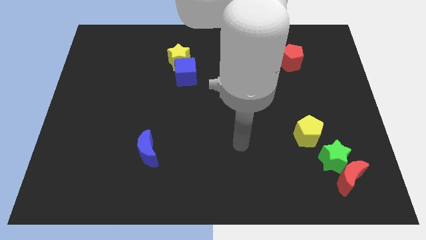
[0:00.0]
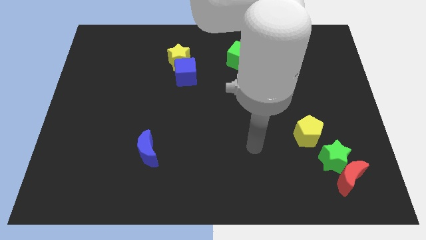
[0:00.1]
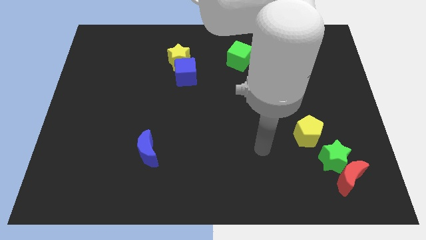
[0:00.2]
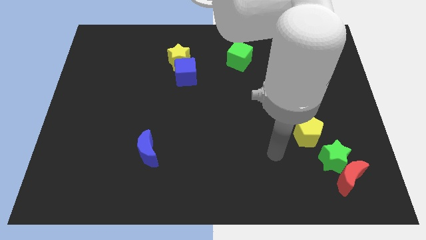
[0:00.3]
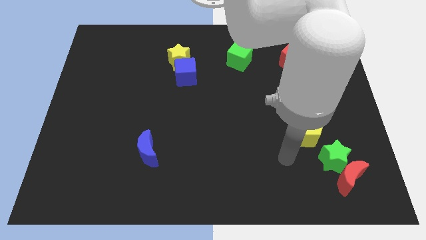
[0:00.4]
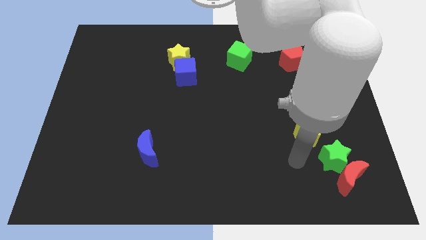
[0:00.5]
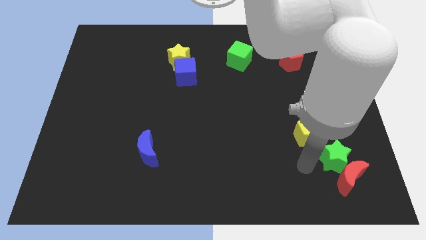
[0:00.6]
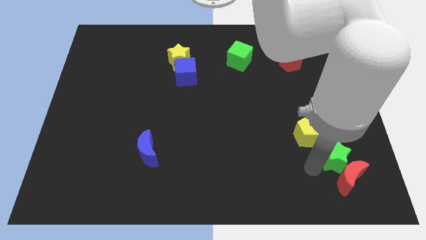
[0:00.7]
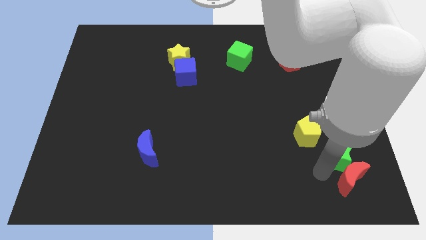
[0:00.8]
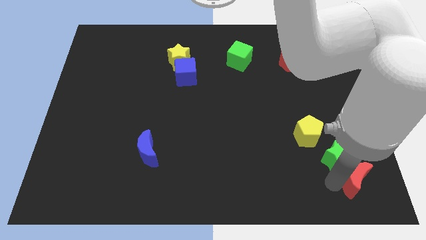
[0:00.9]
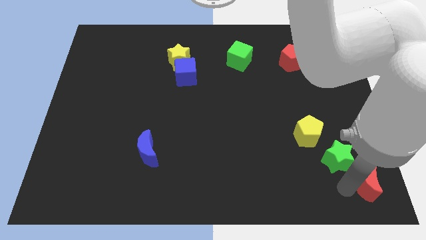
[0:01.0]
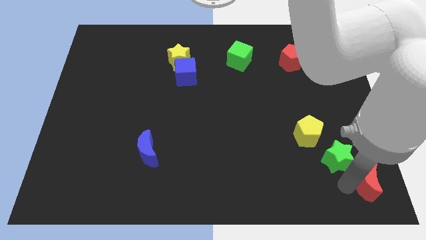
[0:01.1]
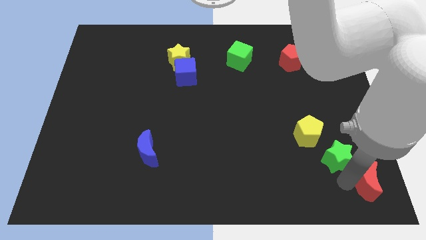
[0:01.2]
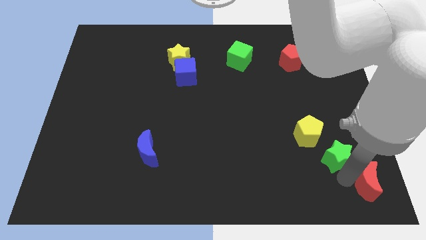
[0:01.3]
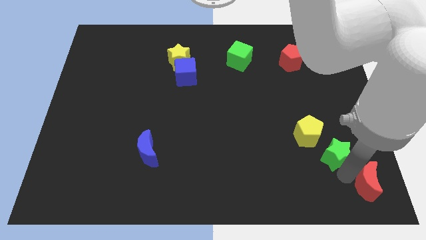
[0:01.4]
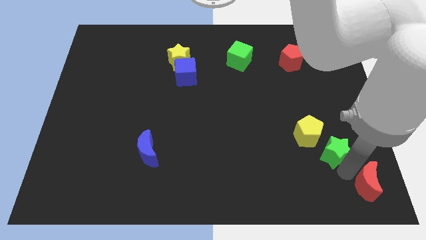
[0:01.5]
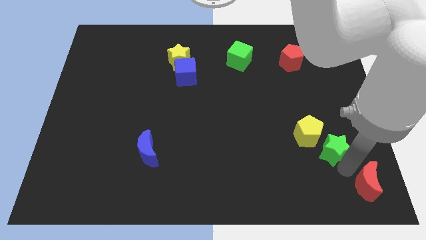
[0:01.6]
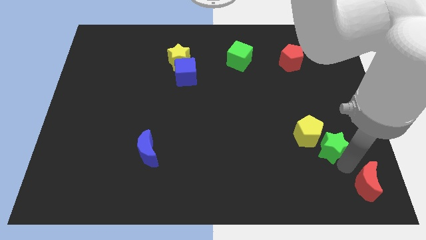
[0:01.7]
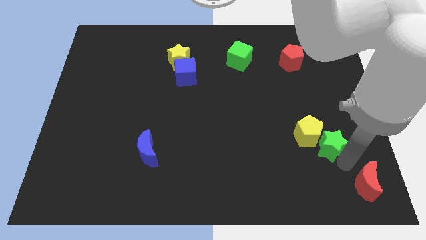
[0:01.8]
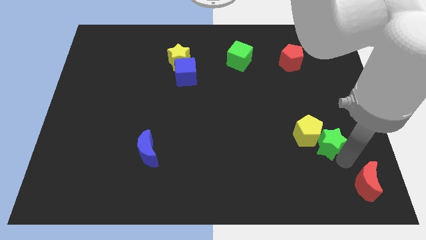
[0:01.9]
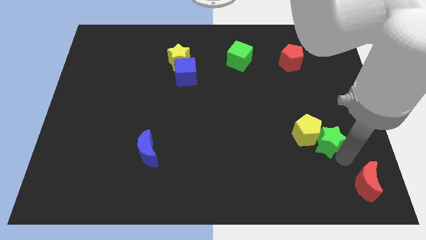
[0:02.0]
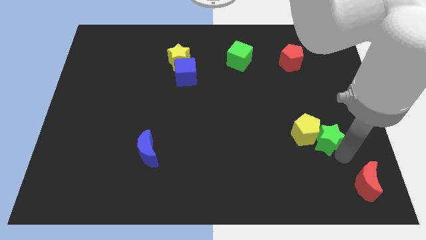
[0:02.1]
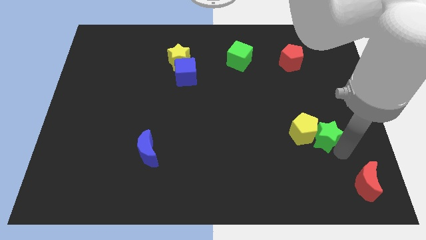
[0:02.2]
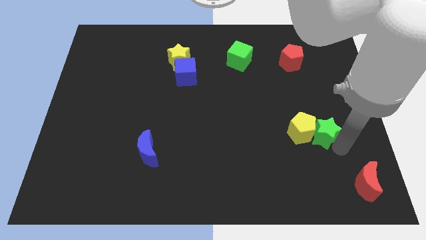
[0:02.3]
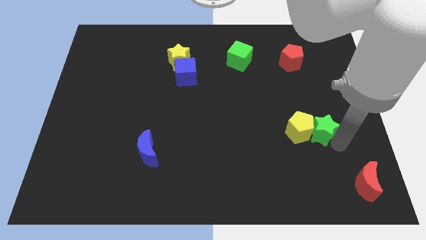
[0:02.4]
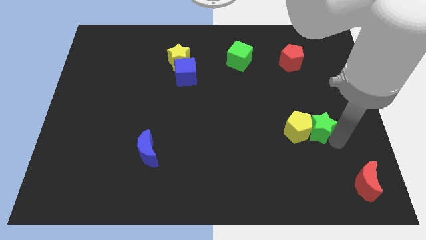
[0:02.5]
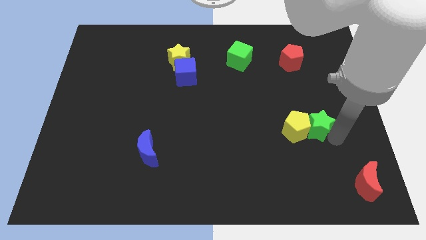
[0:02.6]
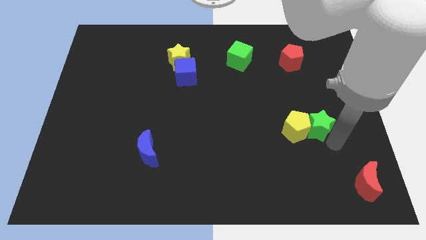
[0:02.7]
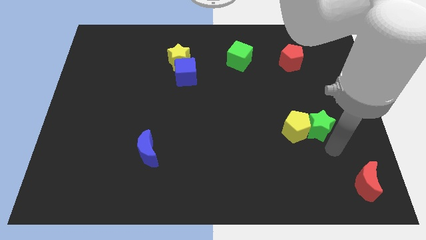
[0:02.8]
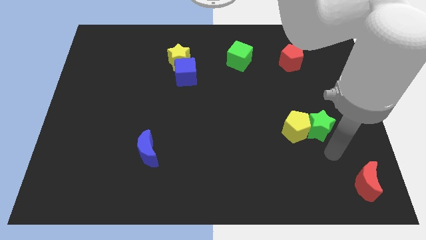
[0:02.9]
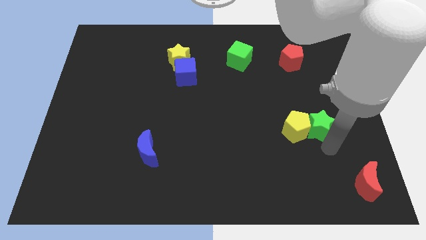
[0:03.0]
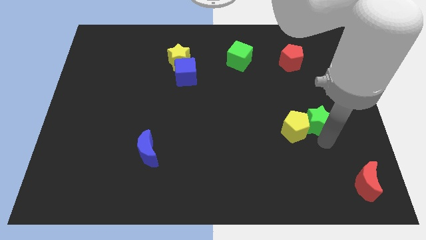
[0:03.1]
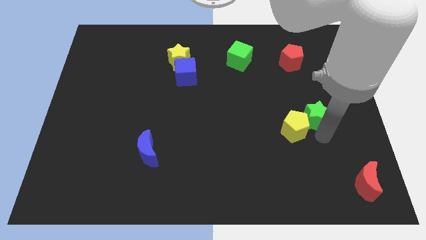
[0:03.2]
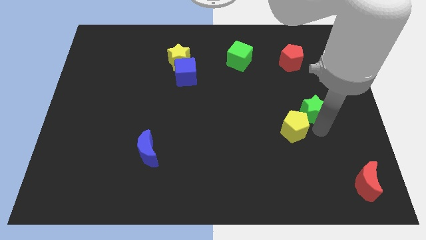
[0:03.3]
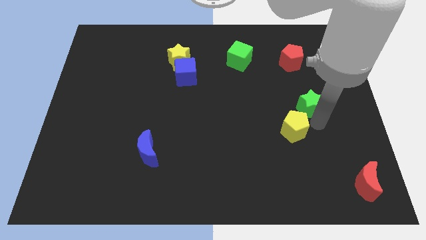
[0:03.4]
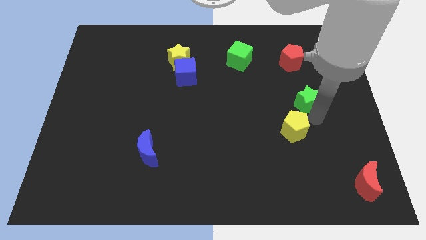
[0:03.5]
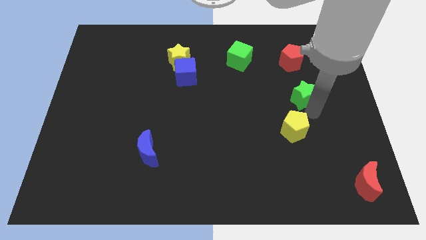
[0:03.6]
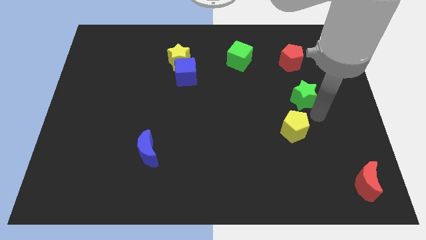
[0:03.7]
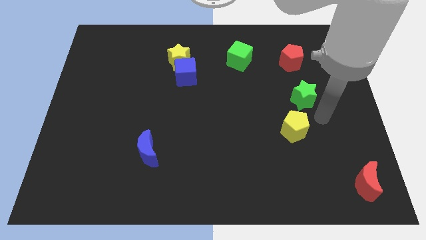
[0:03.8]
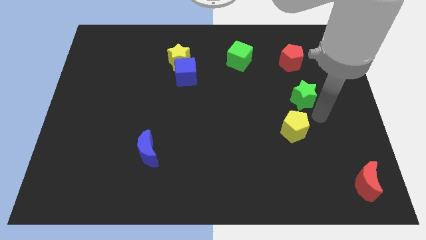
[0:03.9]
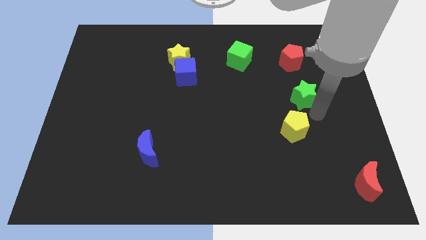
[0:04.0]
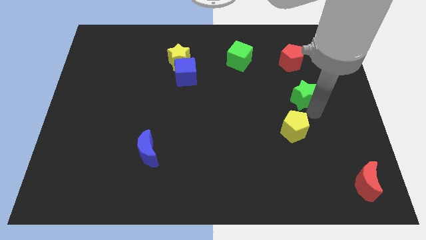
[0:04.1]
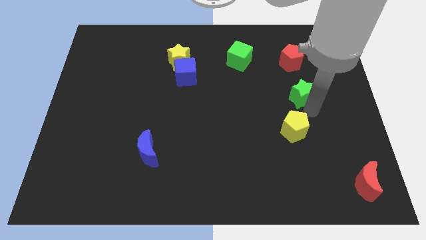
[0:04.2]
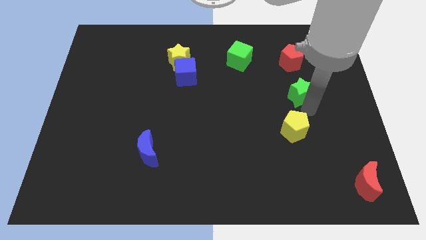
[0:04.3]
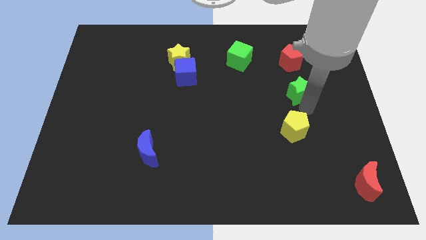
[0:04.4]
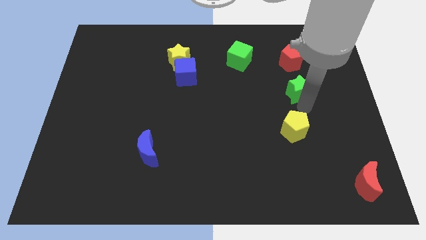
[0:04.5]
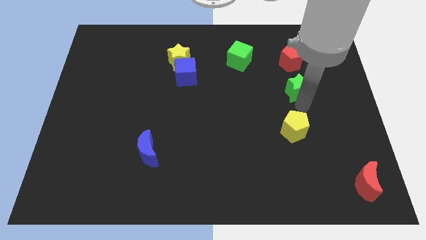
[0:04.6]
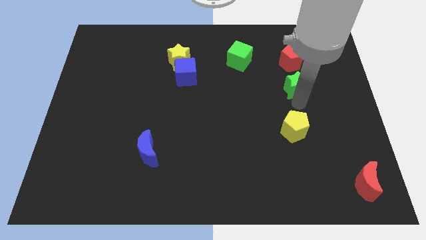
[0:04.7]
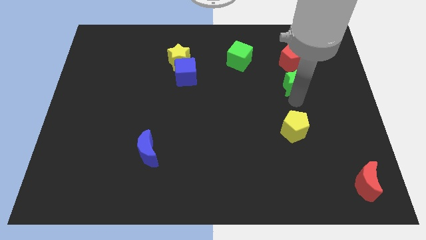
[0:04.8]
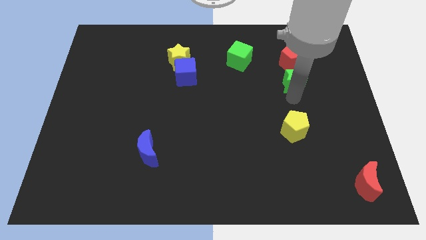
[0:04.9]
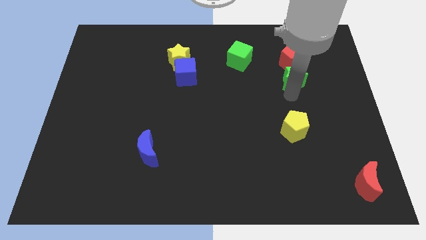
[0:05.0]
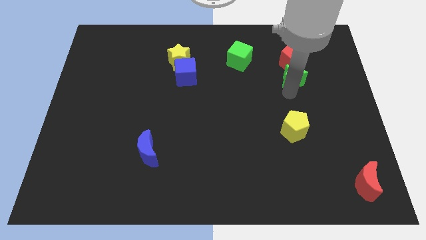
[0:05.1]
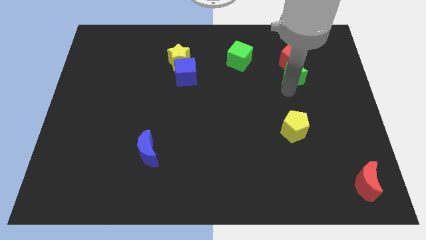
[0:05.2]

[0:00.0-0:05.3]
slide the green star close to the red pentagon

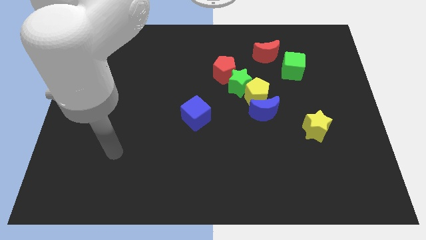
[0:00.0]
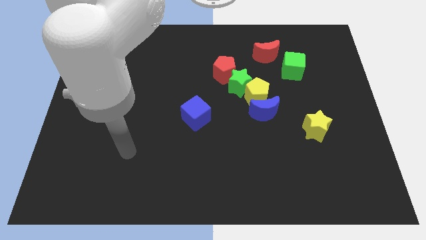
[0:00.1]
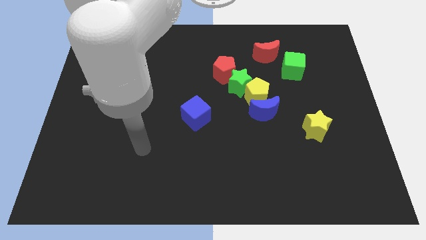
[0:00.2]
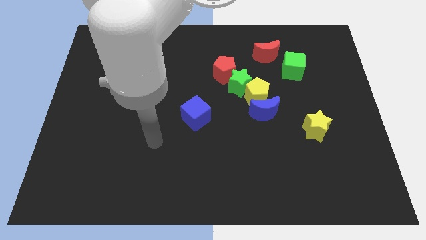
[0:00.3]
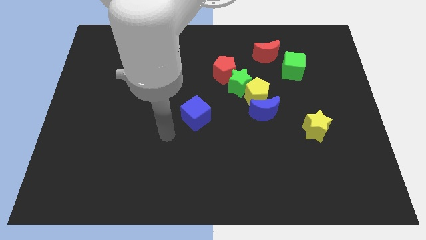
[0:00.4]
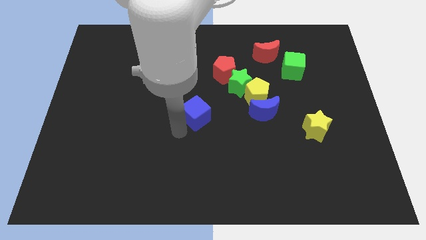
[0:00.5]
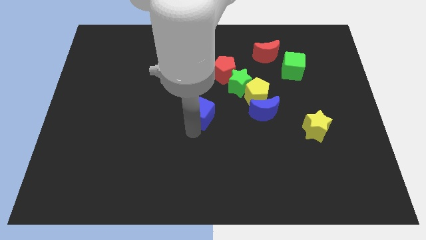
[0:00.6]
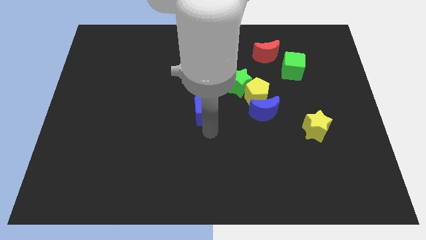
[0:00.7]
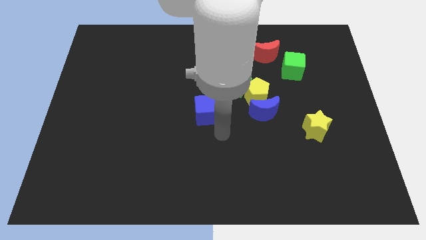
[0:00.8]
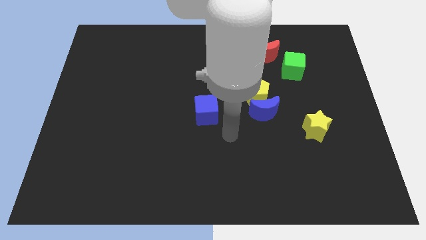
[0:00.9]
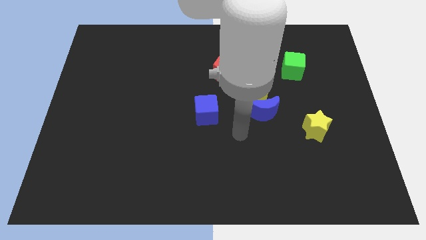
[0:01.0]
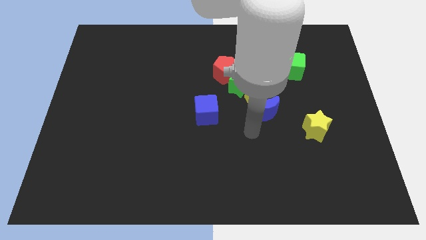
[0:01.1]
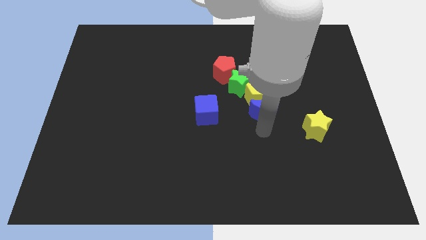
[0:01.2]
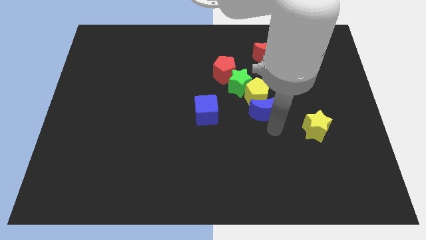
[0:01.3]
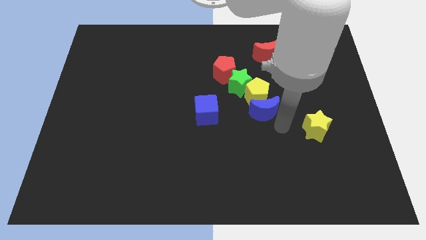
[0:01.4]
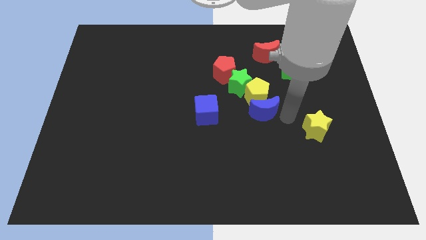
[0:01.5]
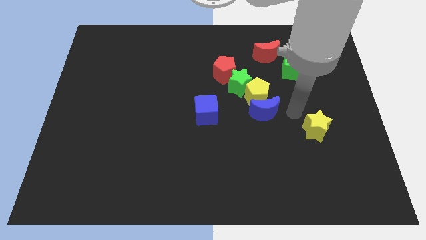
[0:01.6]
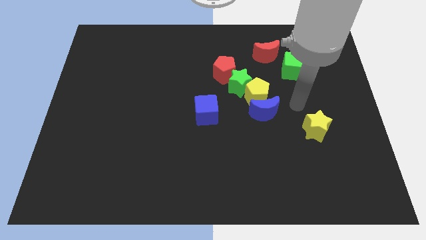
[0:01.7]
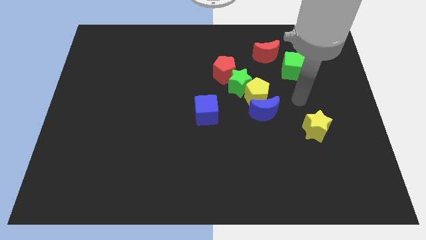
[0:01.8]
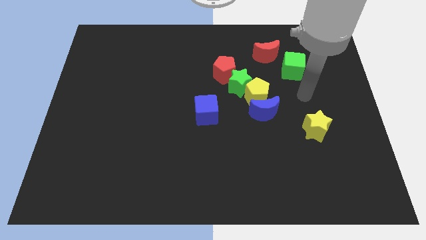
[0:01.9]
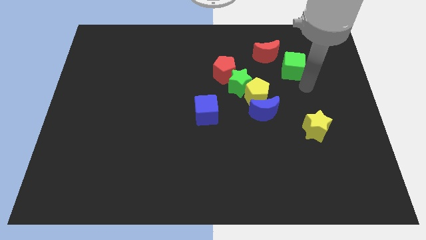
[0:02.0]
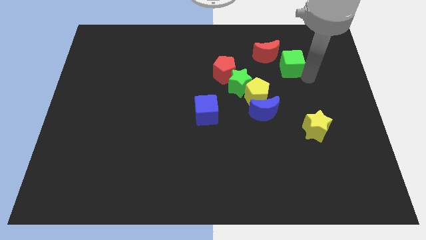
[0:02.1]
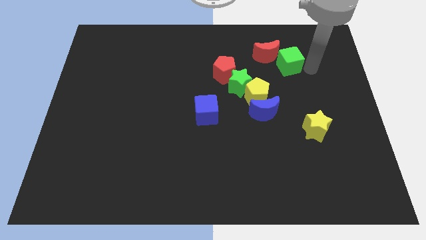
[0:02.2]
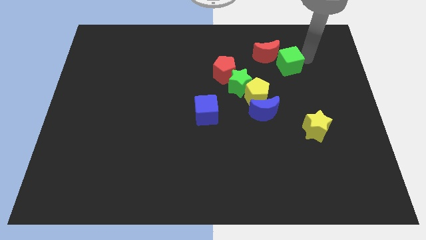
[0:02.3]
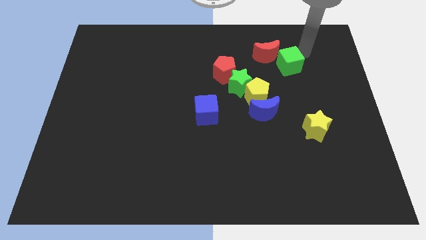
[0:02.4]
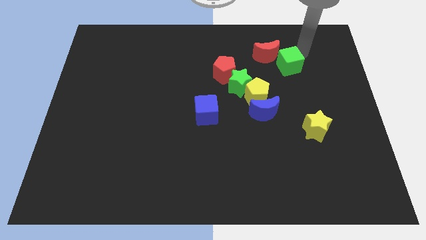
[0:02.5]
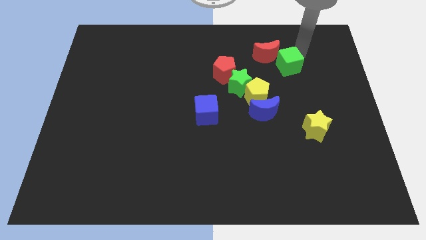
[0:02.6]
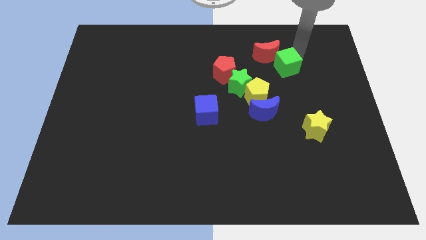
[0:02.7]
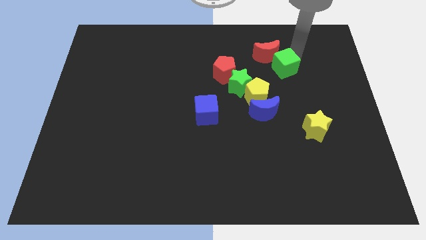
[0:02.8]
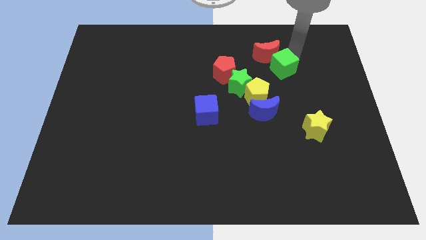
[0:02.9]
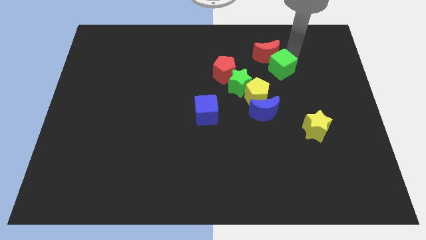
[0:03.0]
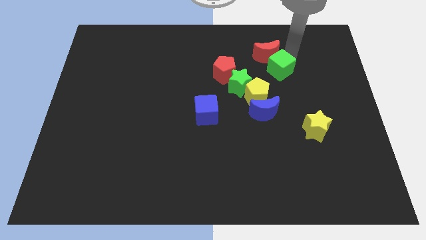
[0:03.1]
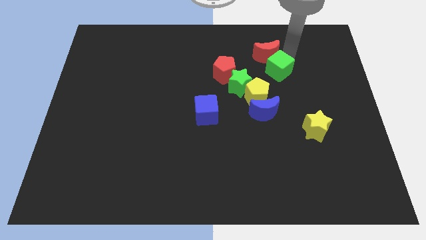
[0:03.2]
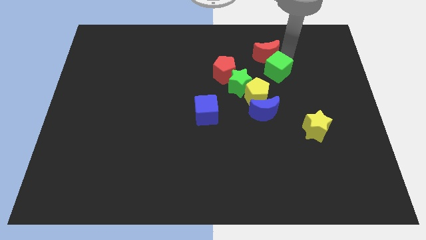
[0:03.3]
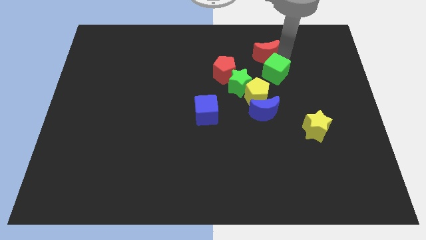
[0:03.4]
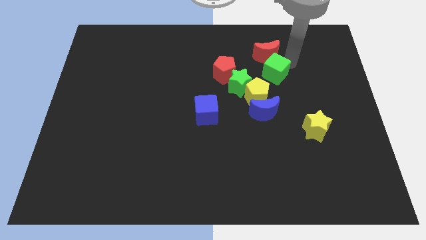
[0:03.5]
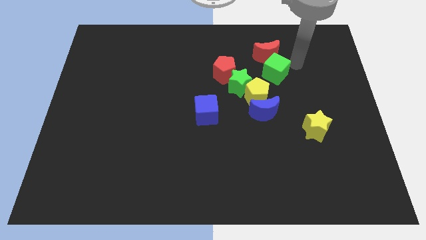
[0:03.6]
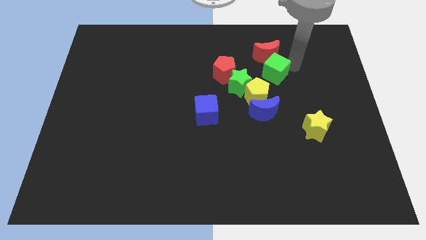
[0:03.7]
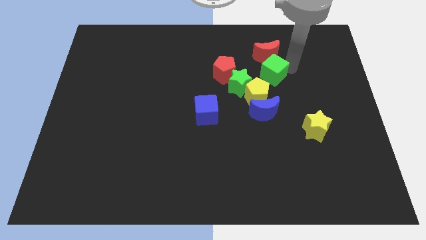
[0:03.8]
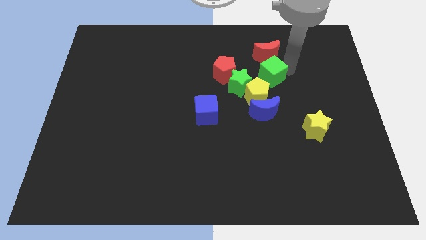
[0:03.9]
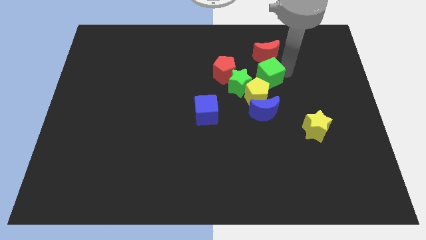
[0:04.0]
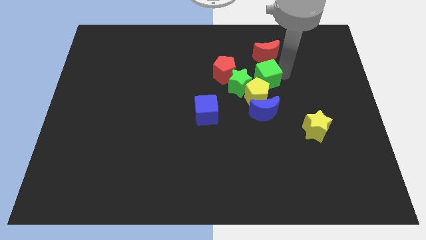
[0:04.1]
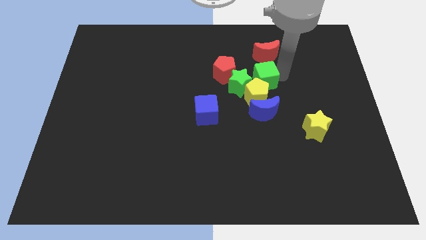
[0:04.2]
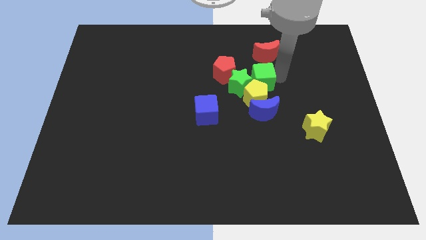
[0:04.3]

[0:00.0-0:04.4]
push the green cube towards the green star
